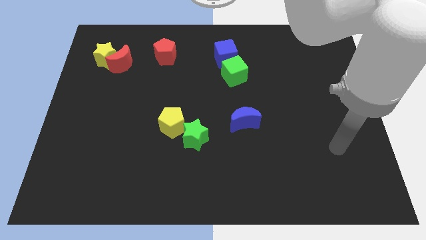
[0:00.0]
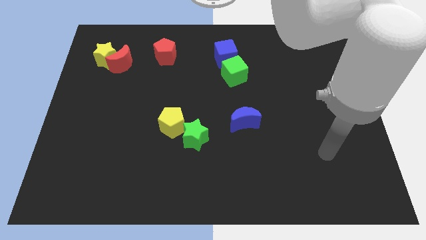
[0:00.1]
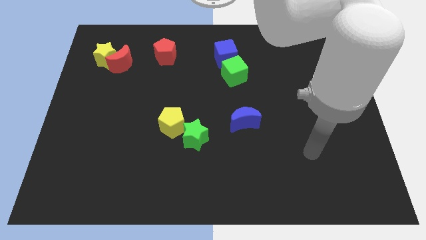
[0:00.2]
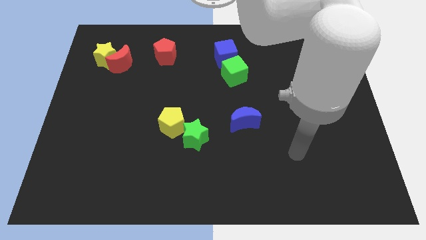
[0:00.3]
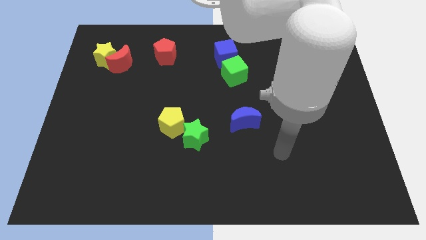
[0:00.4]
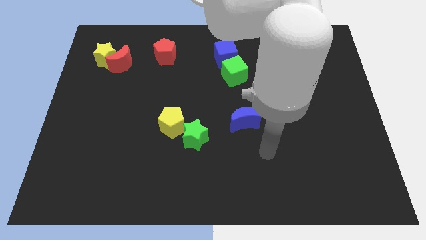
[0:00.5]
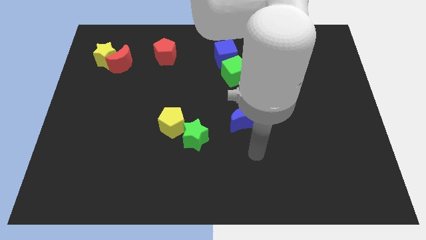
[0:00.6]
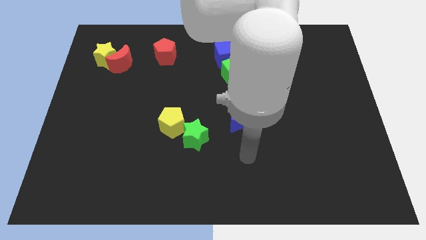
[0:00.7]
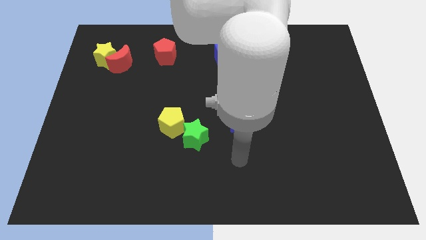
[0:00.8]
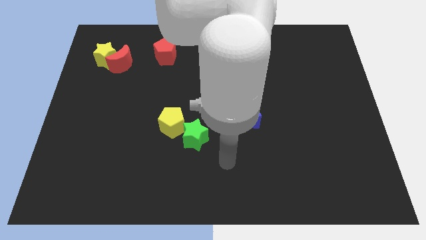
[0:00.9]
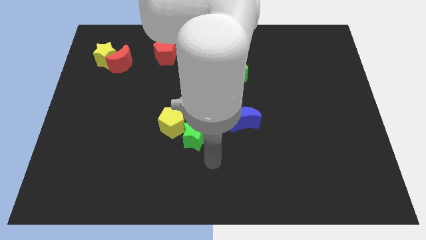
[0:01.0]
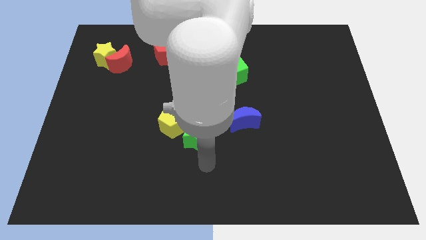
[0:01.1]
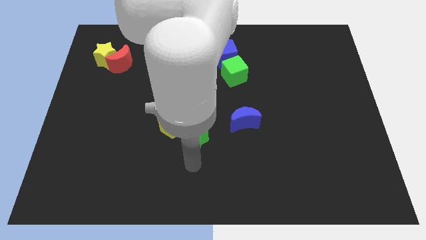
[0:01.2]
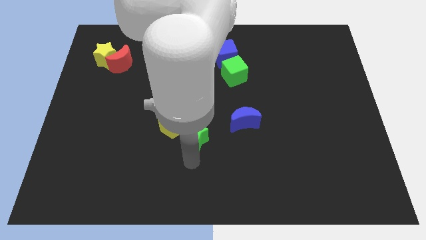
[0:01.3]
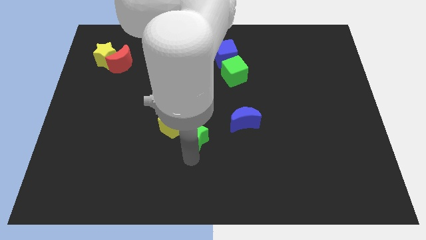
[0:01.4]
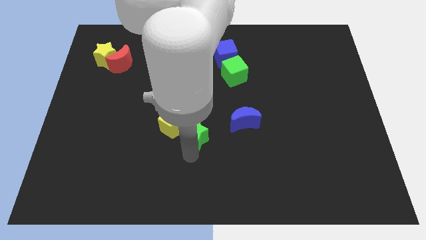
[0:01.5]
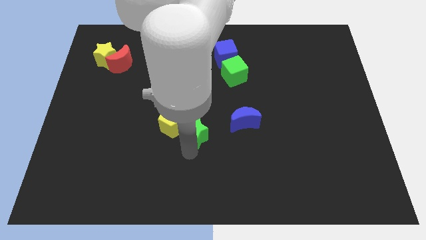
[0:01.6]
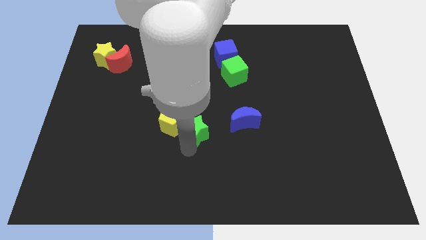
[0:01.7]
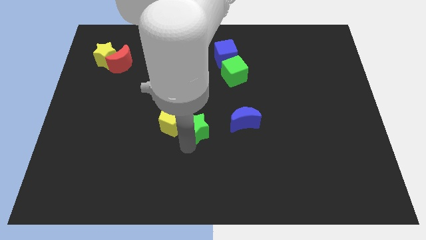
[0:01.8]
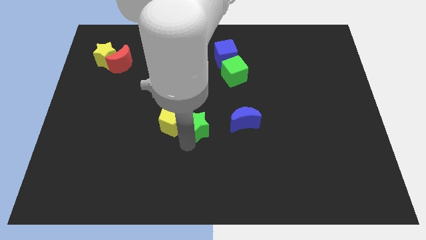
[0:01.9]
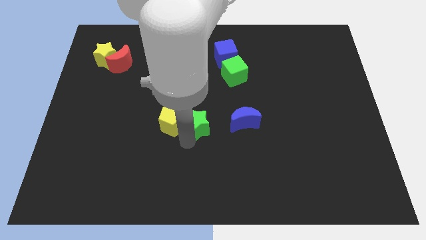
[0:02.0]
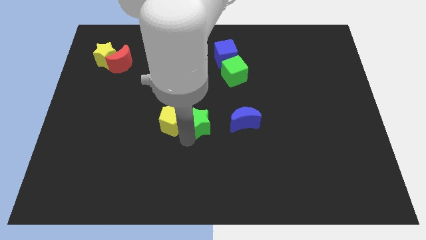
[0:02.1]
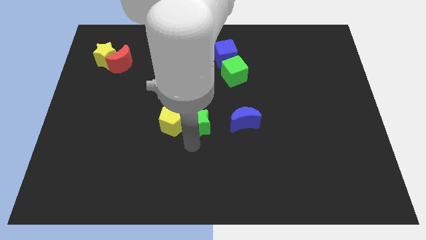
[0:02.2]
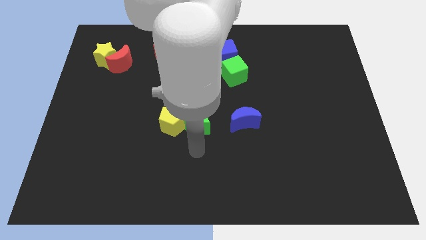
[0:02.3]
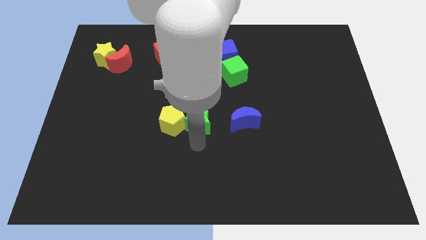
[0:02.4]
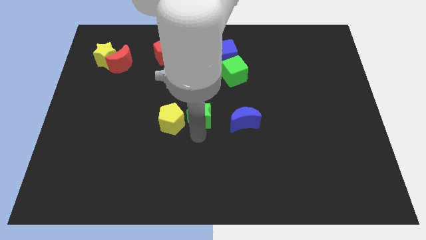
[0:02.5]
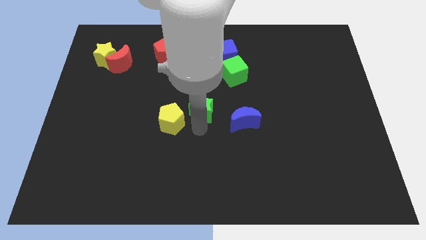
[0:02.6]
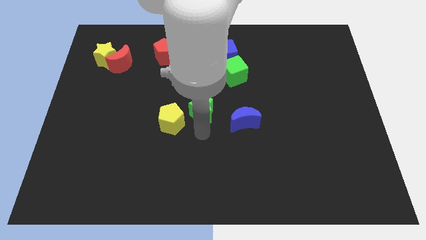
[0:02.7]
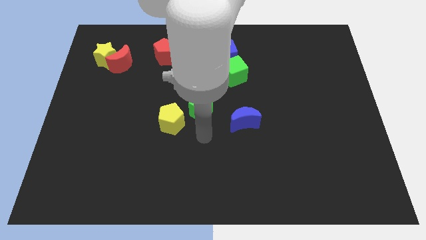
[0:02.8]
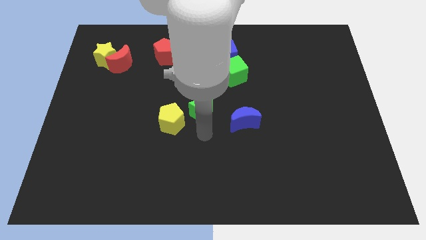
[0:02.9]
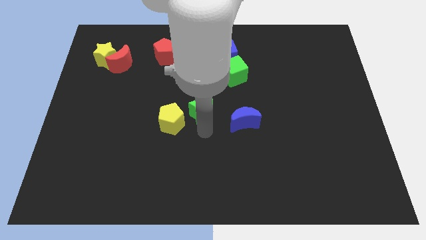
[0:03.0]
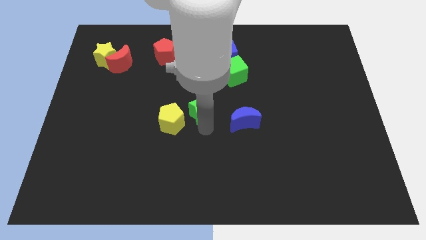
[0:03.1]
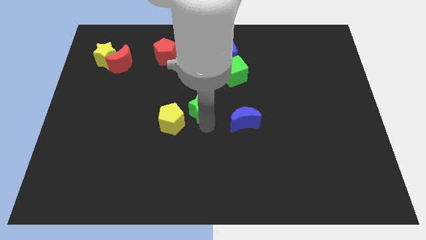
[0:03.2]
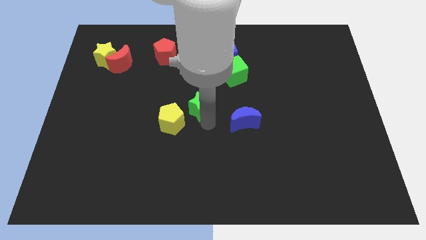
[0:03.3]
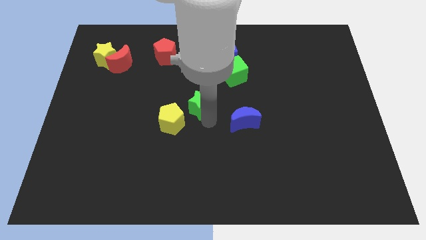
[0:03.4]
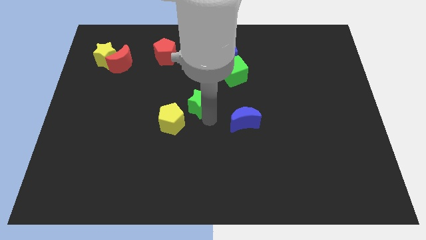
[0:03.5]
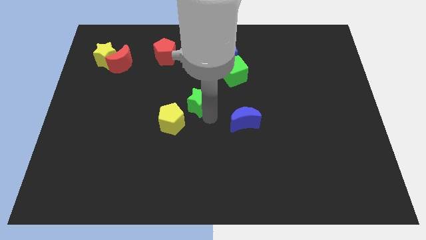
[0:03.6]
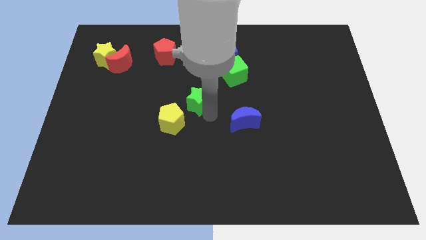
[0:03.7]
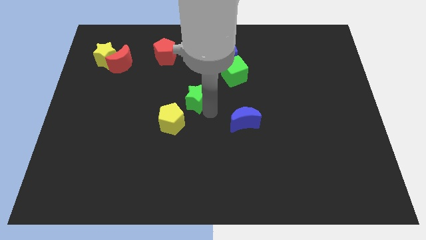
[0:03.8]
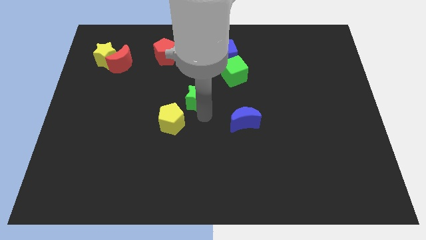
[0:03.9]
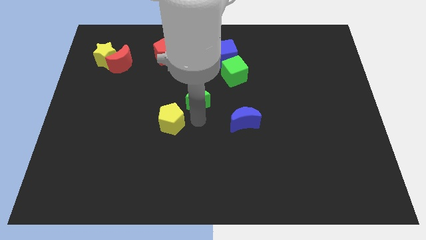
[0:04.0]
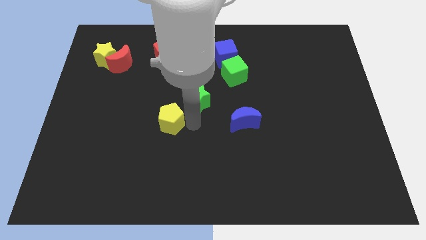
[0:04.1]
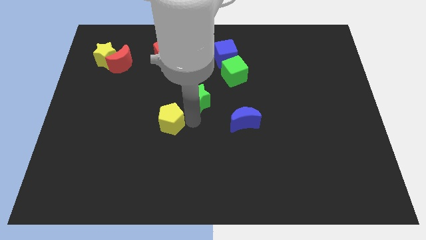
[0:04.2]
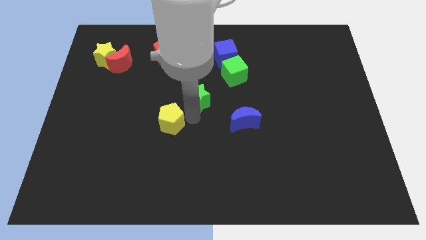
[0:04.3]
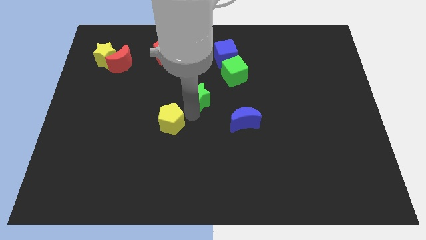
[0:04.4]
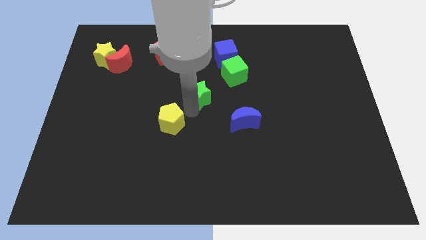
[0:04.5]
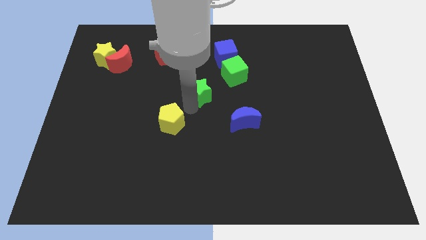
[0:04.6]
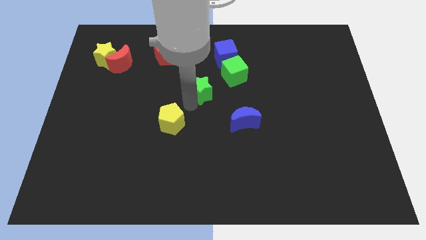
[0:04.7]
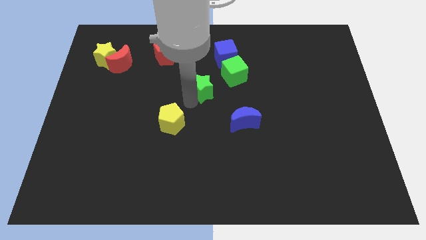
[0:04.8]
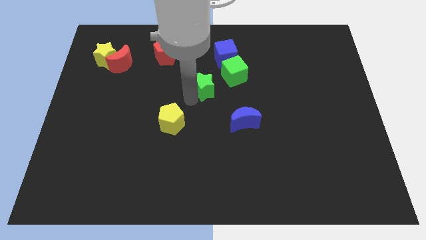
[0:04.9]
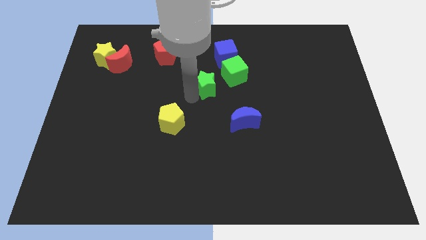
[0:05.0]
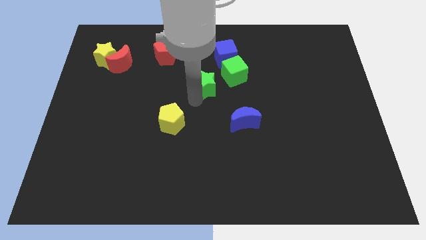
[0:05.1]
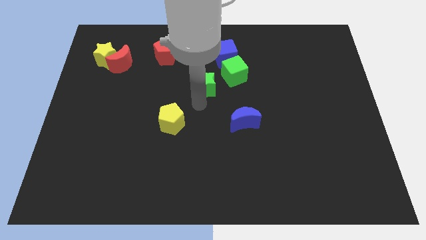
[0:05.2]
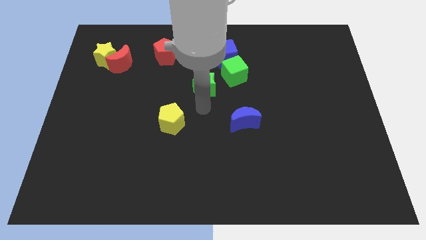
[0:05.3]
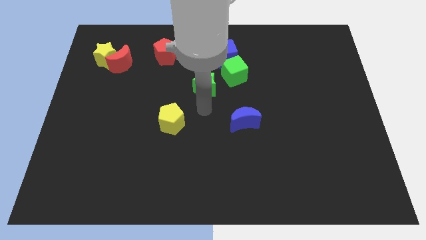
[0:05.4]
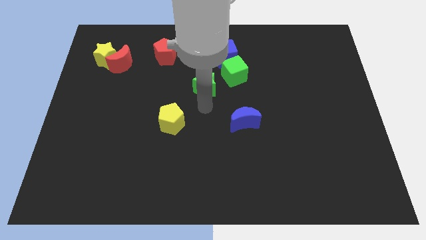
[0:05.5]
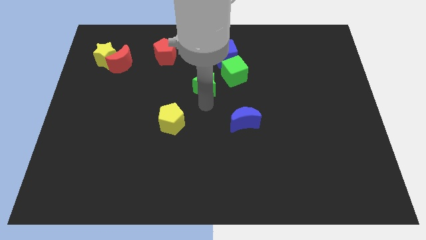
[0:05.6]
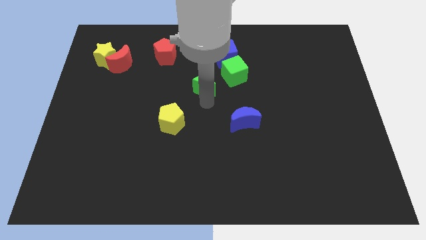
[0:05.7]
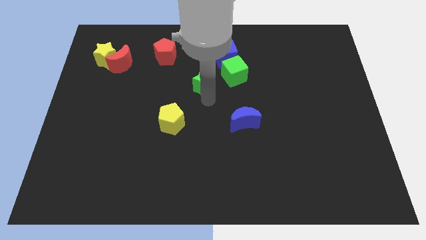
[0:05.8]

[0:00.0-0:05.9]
move the green star to the bottom left side of the blue cube

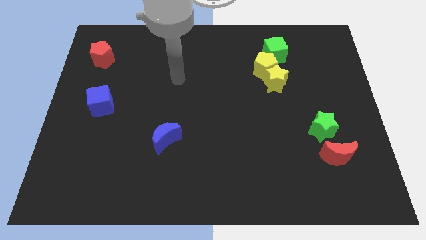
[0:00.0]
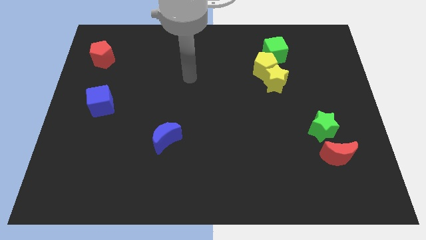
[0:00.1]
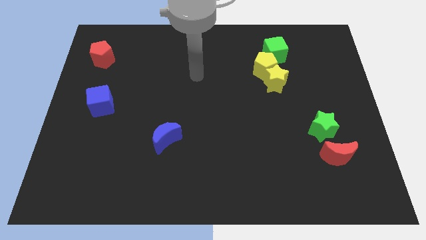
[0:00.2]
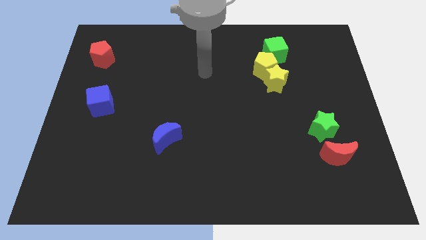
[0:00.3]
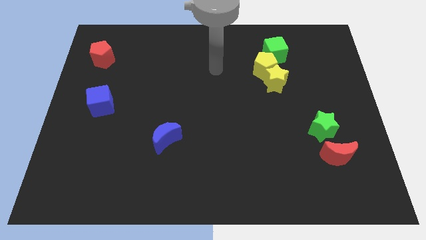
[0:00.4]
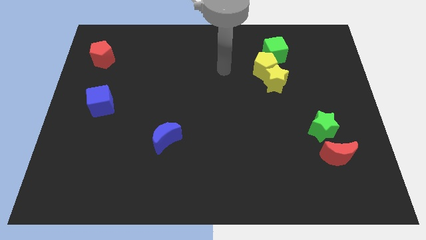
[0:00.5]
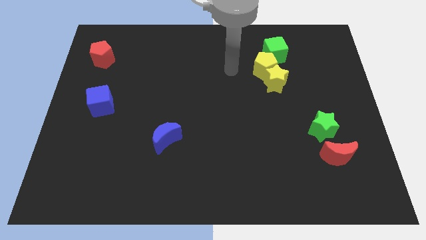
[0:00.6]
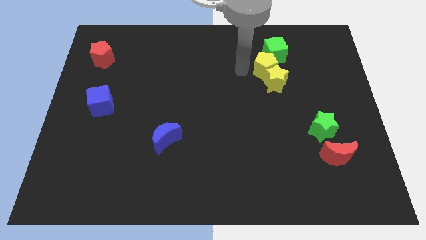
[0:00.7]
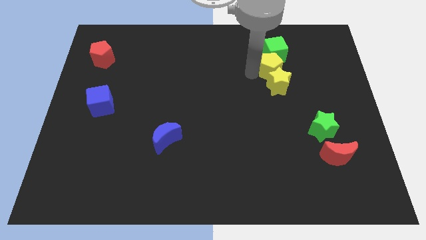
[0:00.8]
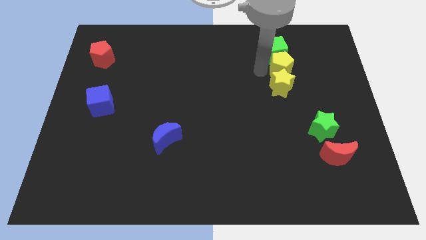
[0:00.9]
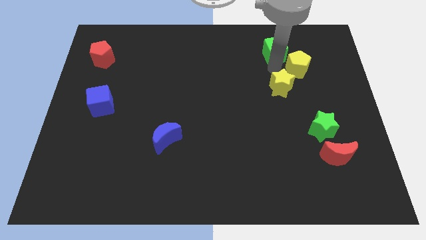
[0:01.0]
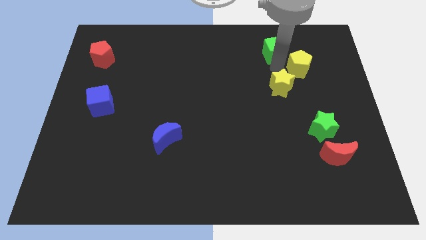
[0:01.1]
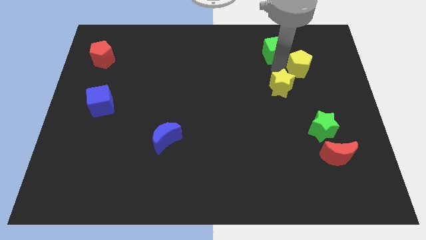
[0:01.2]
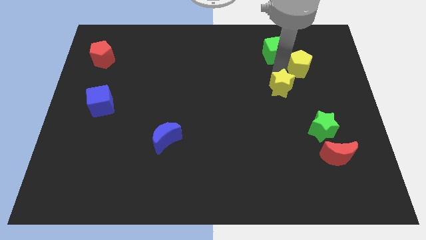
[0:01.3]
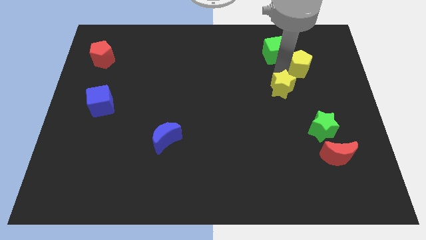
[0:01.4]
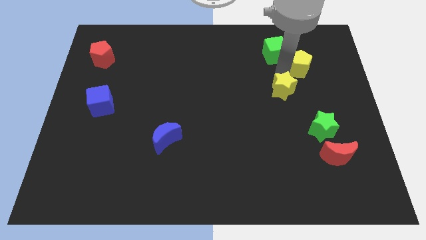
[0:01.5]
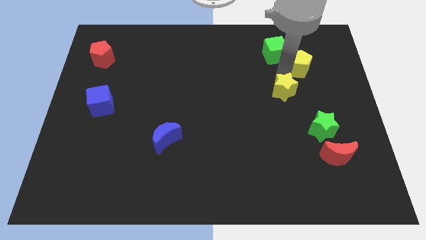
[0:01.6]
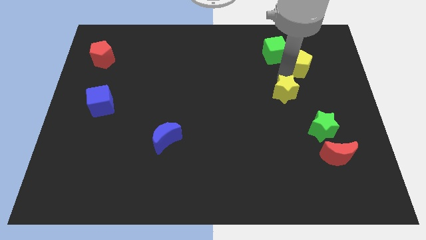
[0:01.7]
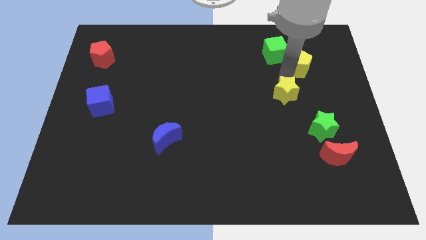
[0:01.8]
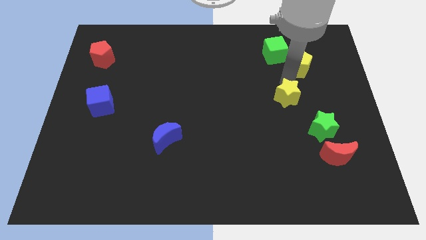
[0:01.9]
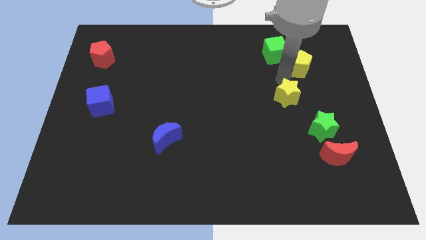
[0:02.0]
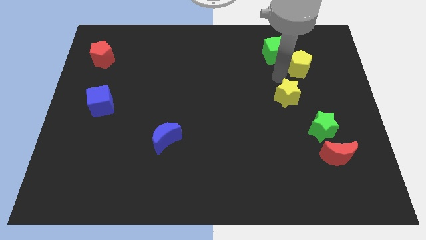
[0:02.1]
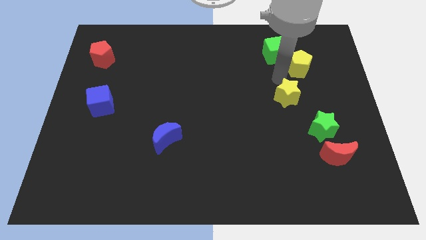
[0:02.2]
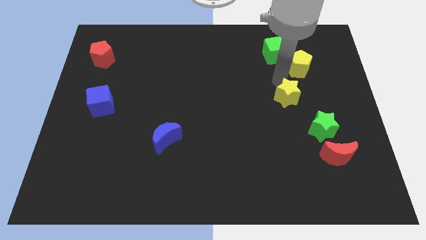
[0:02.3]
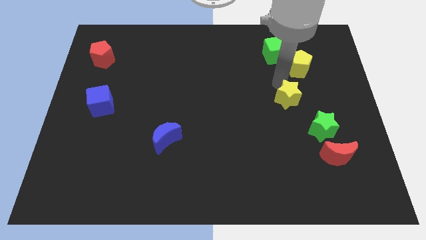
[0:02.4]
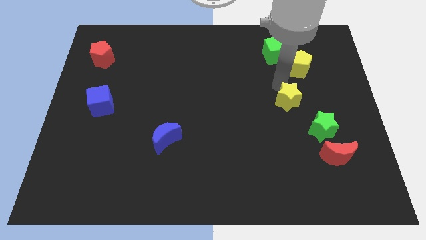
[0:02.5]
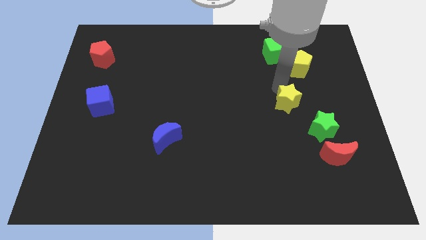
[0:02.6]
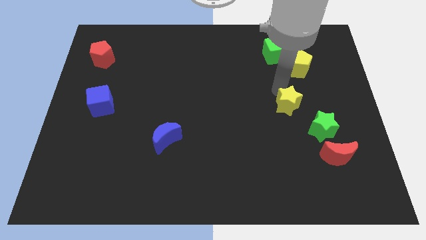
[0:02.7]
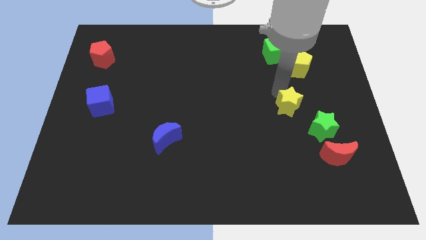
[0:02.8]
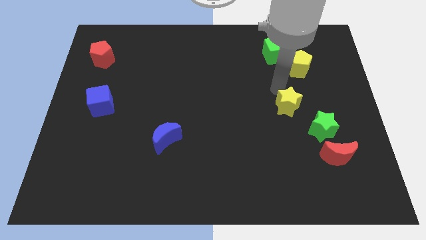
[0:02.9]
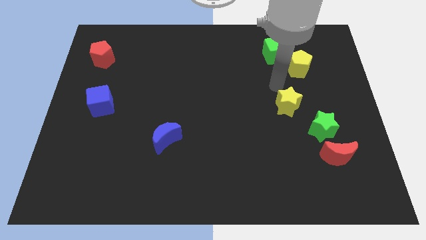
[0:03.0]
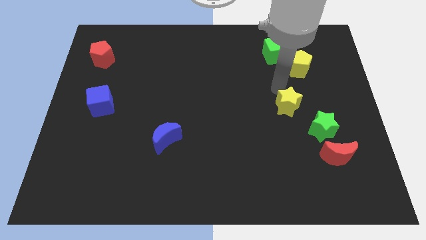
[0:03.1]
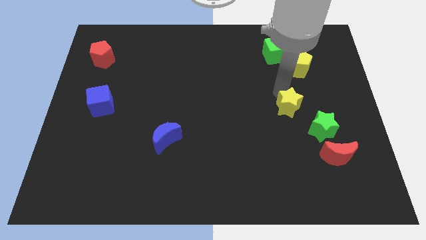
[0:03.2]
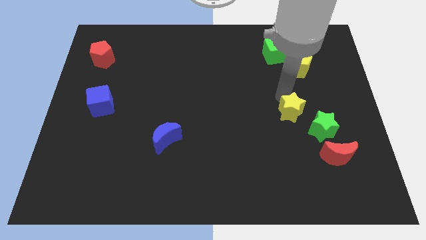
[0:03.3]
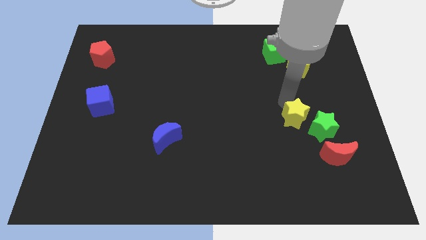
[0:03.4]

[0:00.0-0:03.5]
slide the yellow star to the top left side of the red moon
